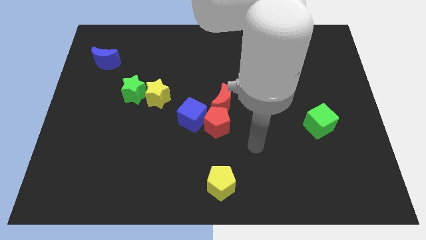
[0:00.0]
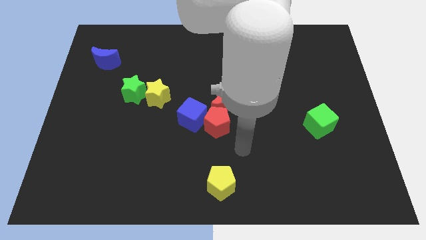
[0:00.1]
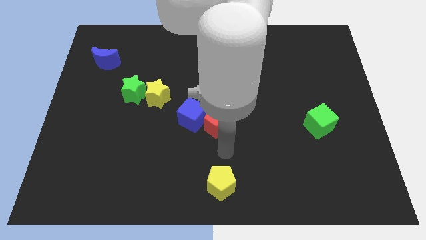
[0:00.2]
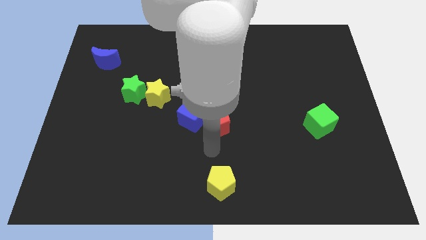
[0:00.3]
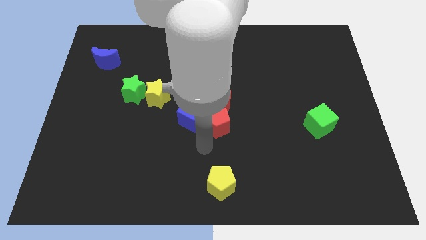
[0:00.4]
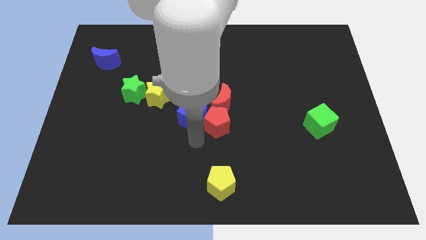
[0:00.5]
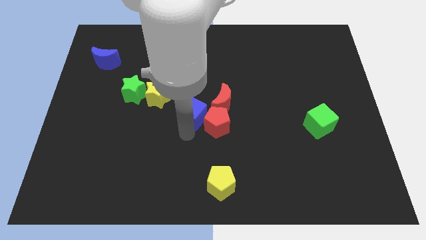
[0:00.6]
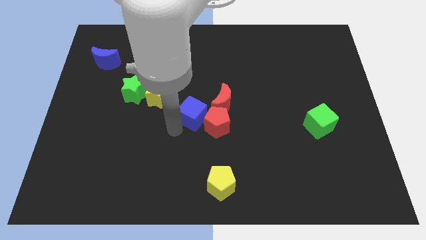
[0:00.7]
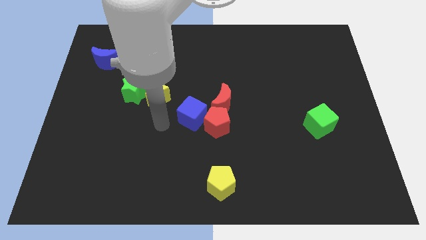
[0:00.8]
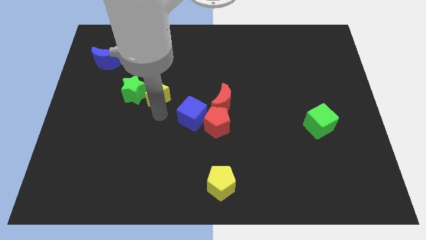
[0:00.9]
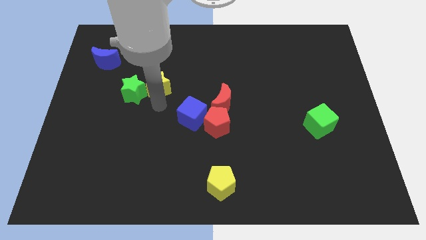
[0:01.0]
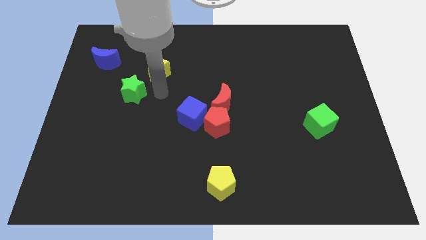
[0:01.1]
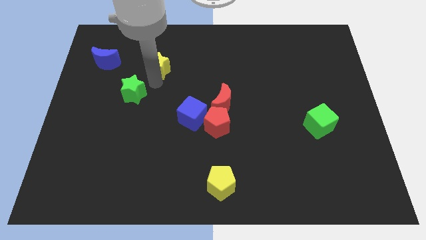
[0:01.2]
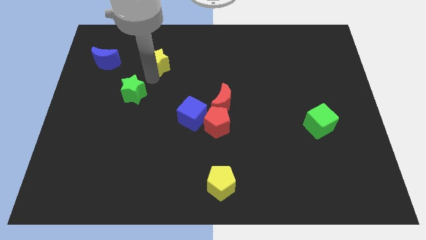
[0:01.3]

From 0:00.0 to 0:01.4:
pull the green star apart from the yellow star

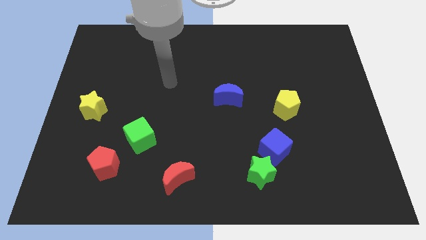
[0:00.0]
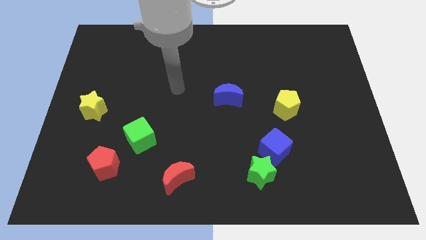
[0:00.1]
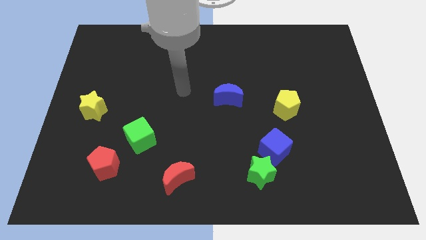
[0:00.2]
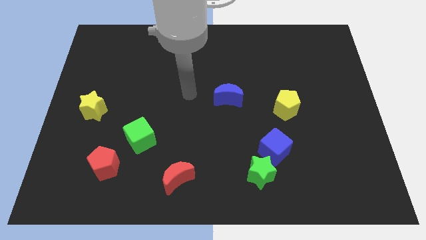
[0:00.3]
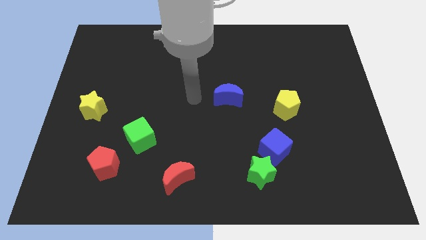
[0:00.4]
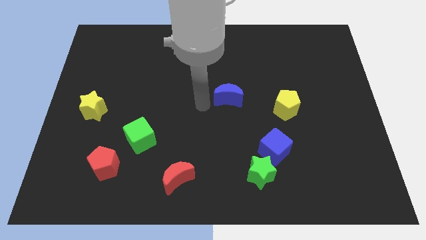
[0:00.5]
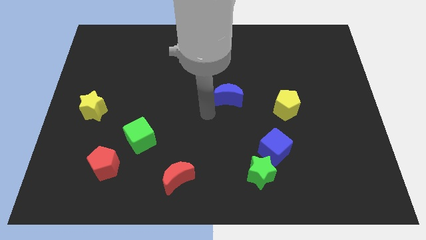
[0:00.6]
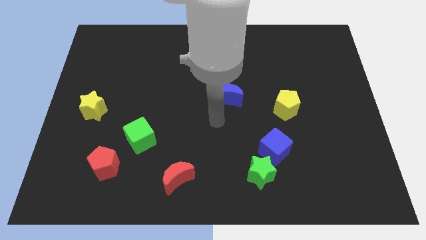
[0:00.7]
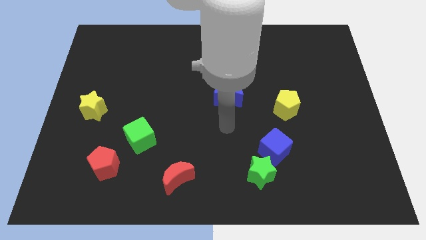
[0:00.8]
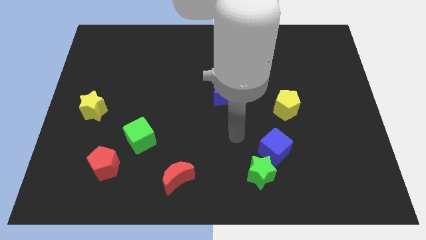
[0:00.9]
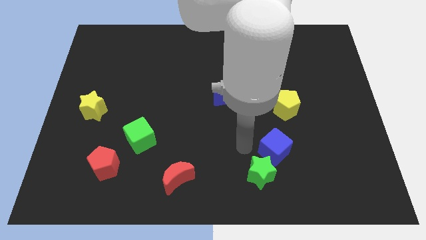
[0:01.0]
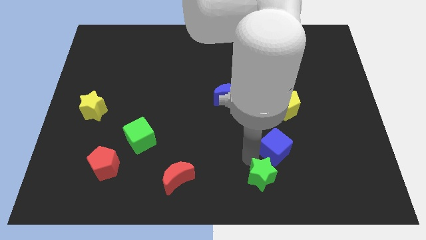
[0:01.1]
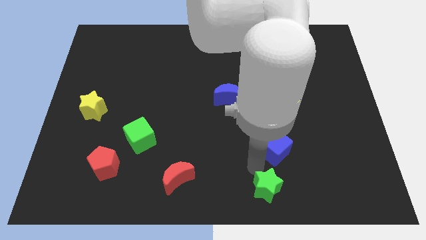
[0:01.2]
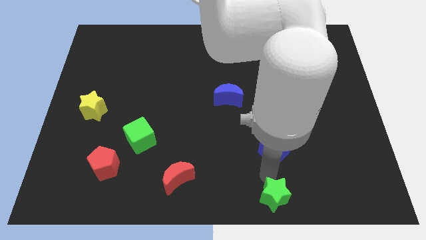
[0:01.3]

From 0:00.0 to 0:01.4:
pull the blue cube apart from the green star

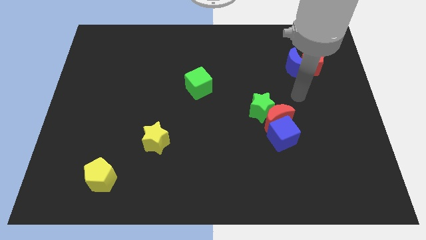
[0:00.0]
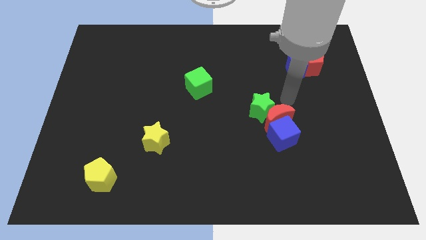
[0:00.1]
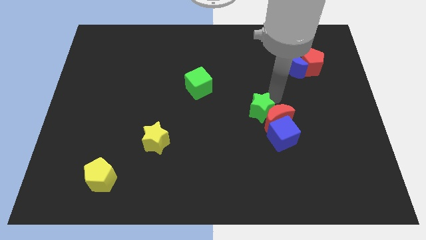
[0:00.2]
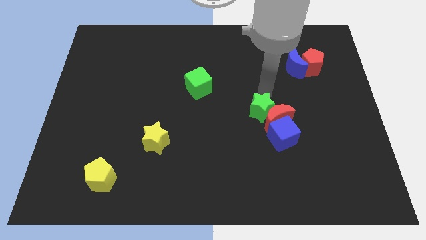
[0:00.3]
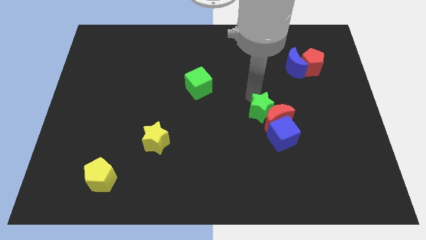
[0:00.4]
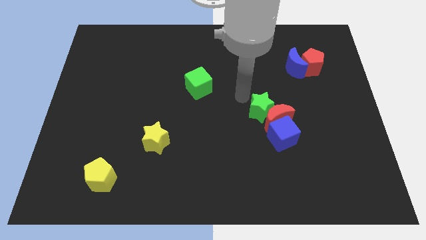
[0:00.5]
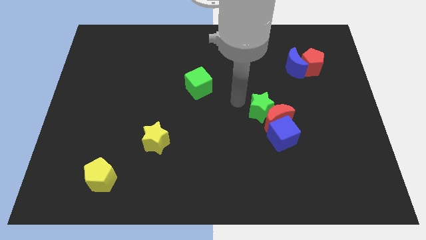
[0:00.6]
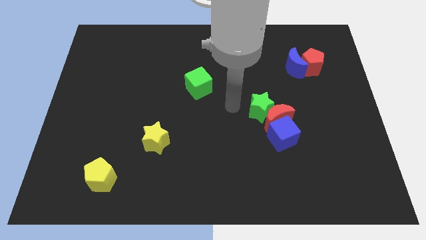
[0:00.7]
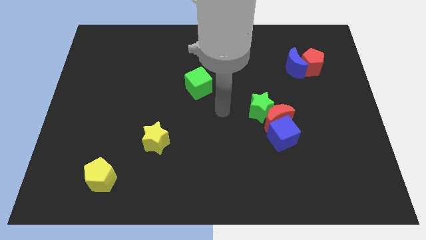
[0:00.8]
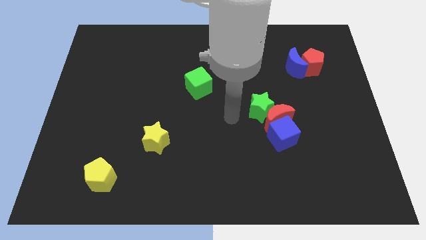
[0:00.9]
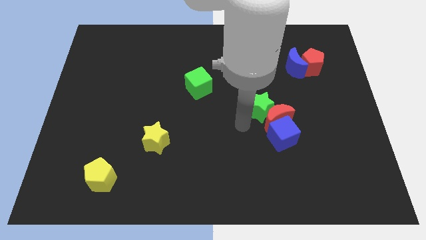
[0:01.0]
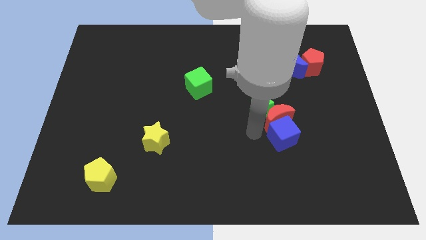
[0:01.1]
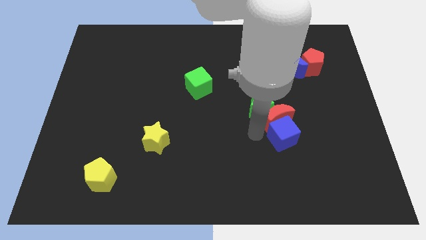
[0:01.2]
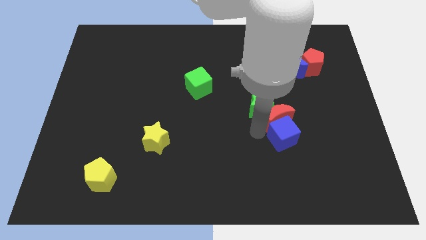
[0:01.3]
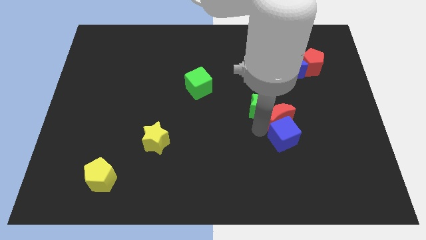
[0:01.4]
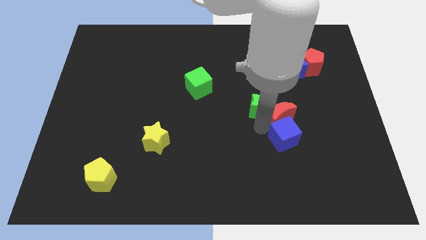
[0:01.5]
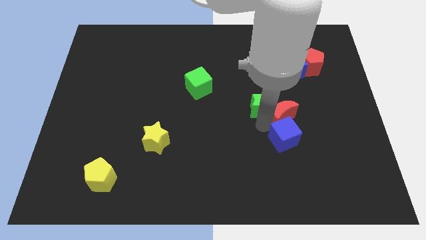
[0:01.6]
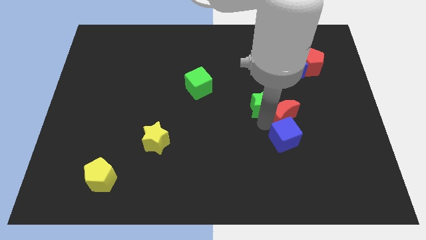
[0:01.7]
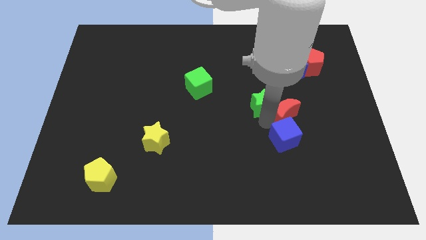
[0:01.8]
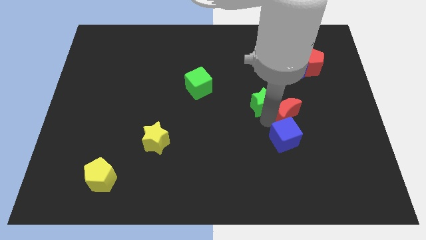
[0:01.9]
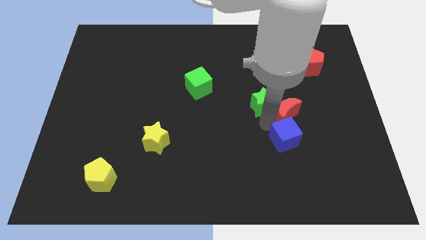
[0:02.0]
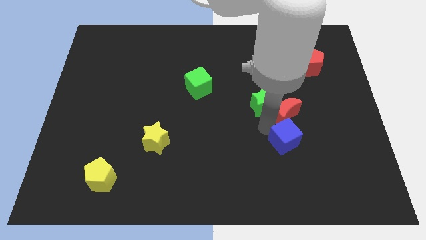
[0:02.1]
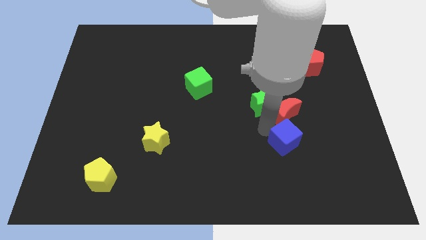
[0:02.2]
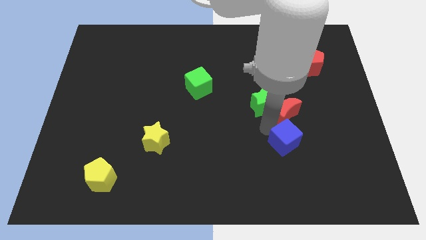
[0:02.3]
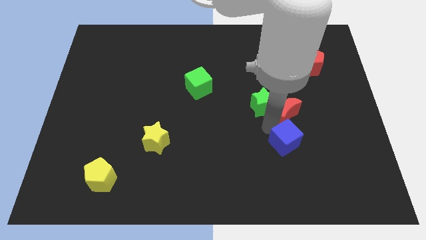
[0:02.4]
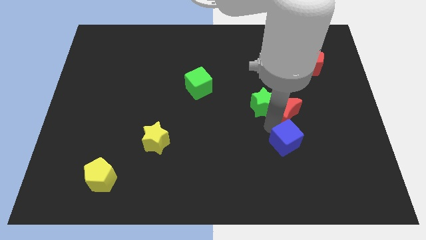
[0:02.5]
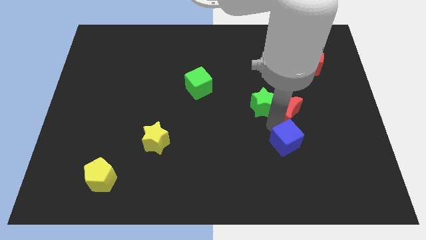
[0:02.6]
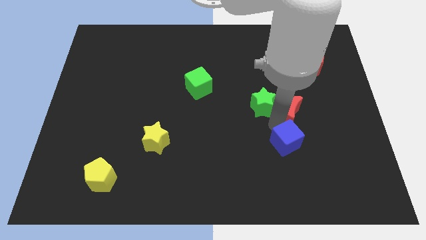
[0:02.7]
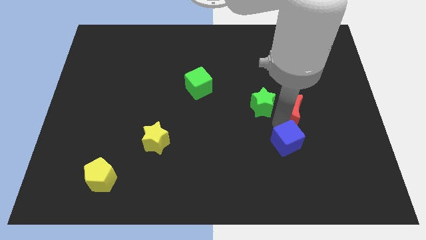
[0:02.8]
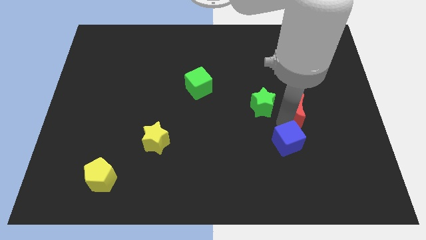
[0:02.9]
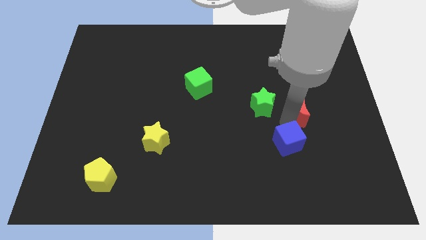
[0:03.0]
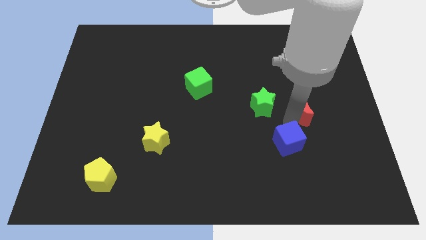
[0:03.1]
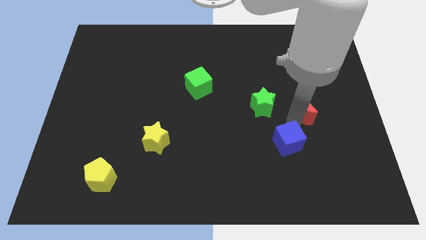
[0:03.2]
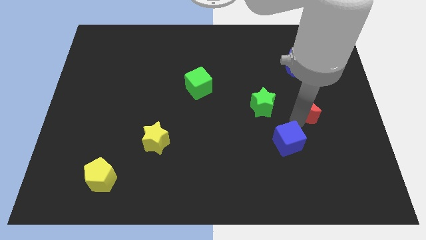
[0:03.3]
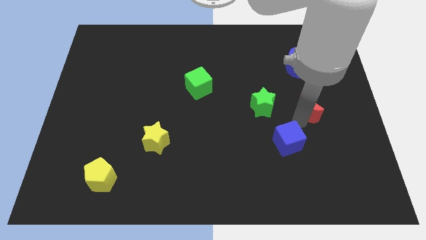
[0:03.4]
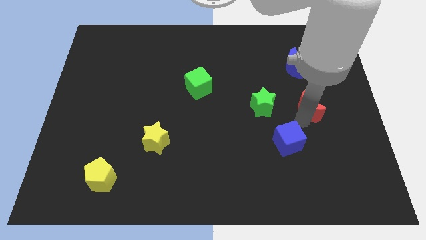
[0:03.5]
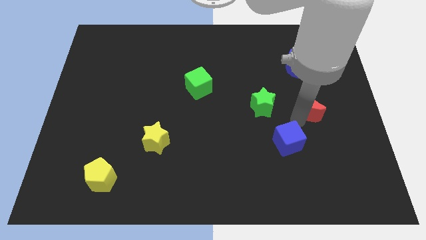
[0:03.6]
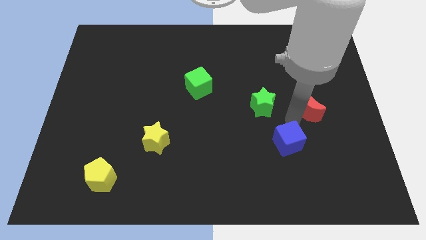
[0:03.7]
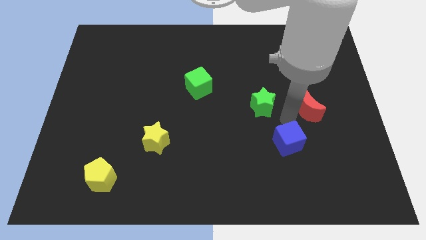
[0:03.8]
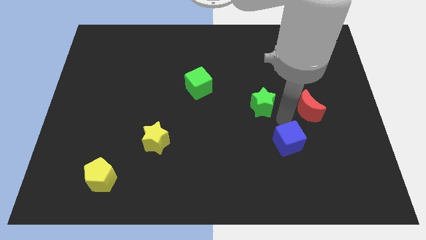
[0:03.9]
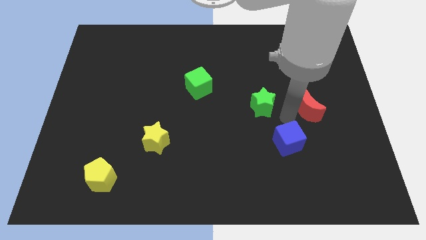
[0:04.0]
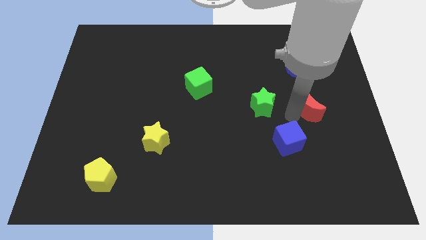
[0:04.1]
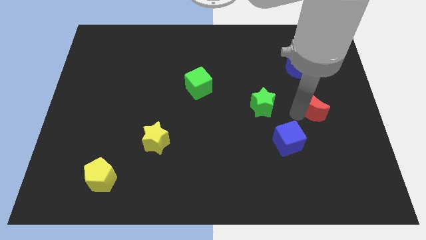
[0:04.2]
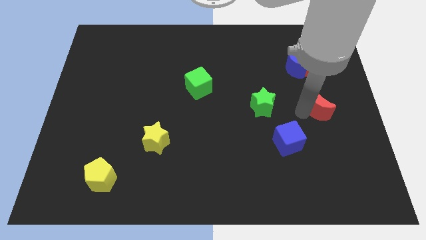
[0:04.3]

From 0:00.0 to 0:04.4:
move the red moon away from the green star and blue cube

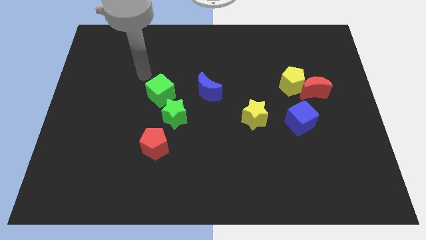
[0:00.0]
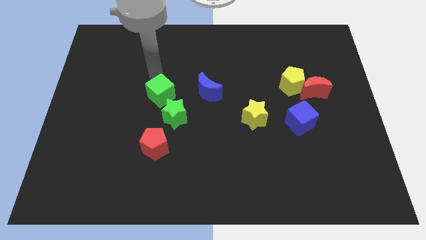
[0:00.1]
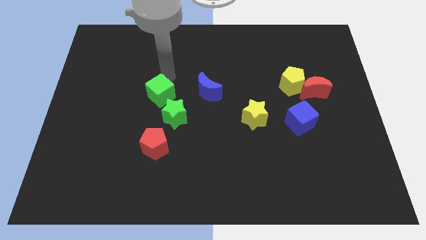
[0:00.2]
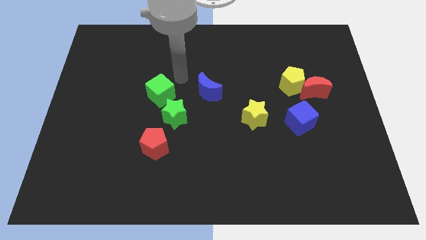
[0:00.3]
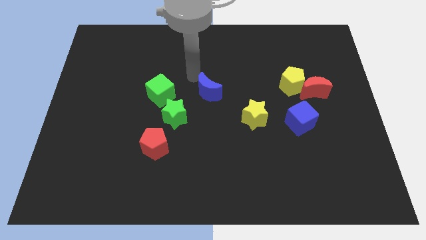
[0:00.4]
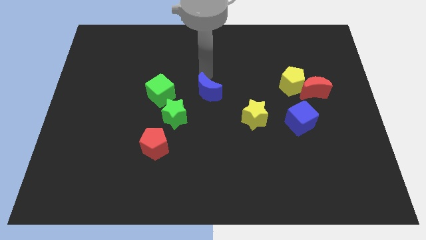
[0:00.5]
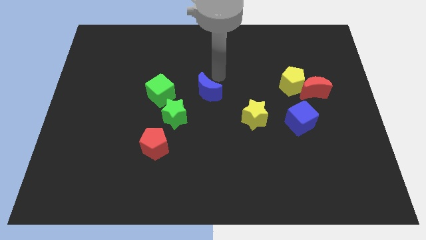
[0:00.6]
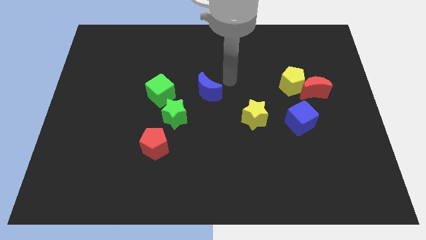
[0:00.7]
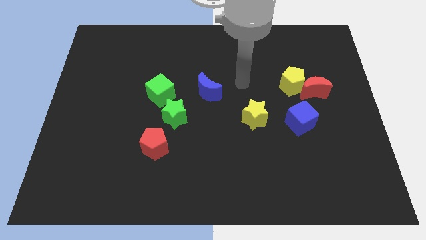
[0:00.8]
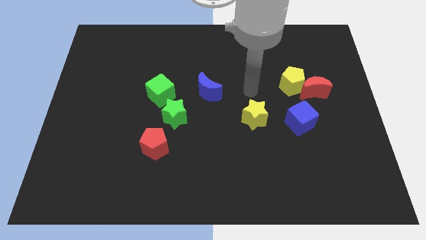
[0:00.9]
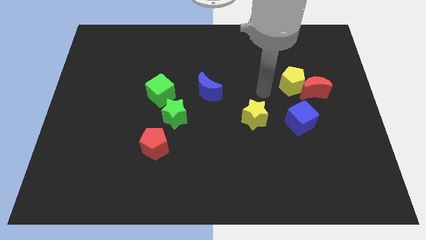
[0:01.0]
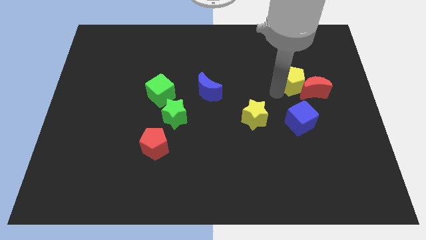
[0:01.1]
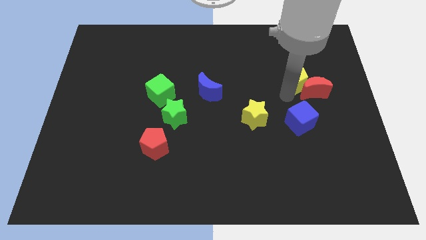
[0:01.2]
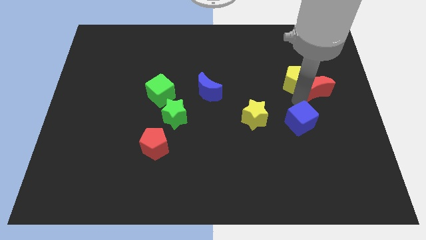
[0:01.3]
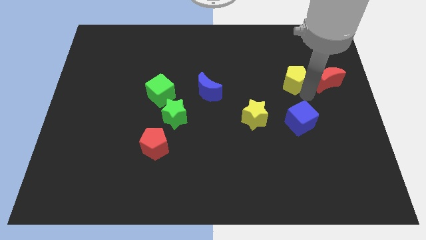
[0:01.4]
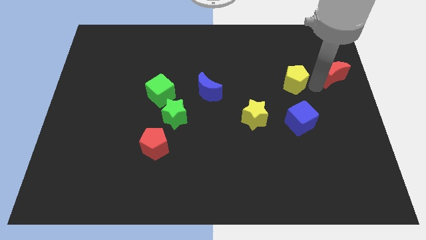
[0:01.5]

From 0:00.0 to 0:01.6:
separate the yellow pentagon from the red moon

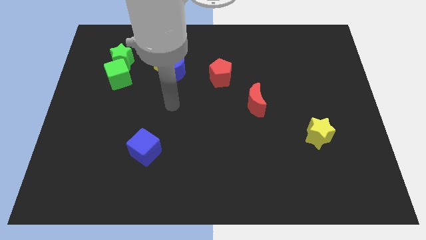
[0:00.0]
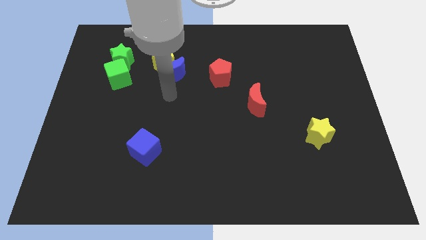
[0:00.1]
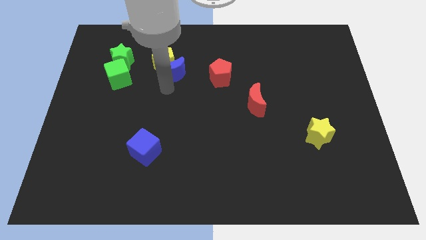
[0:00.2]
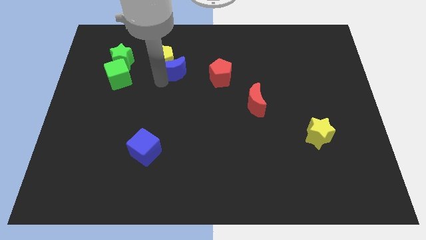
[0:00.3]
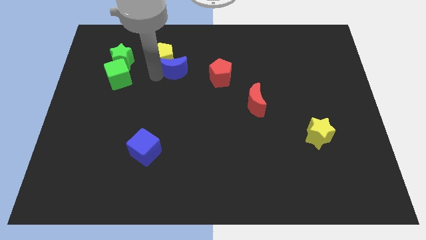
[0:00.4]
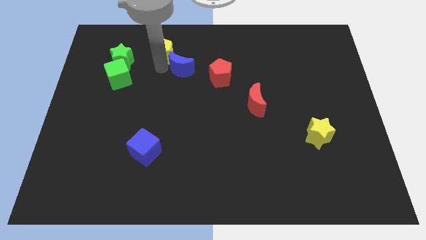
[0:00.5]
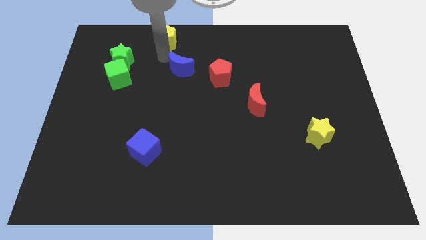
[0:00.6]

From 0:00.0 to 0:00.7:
separate the blue moon from the yellow pentagon
